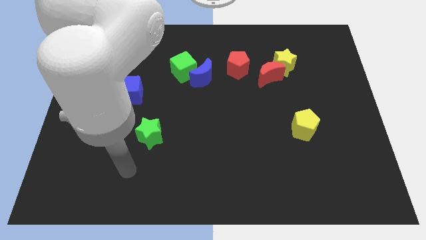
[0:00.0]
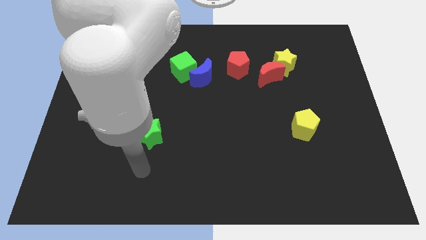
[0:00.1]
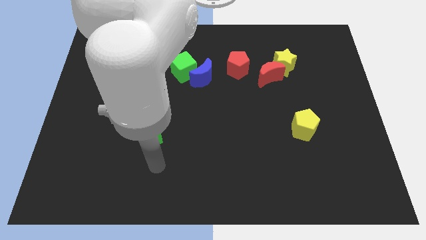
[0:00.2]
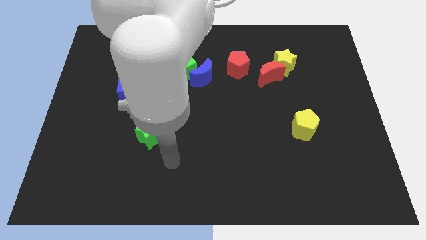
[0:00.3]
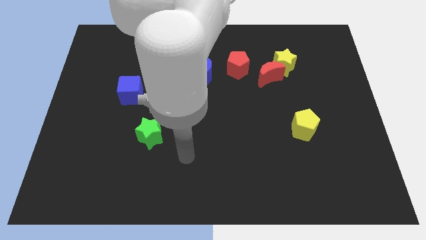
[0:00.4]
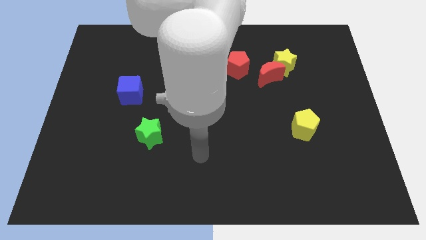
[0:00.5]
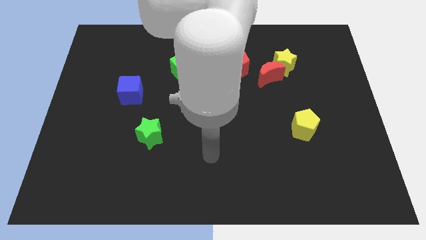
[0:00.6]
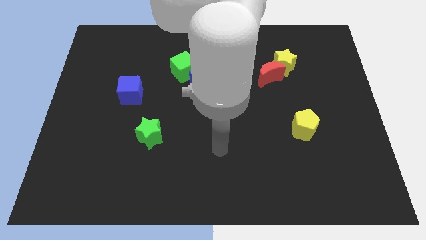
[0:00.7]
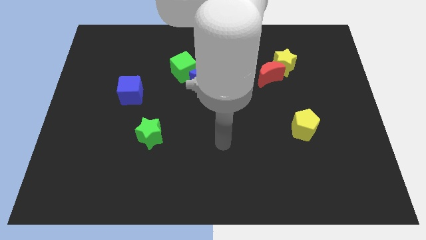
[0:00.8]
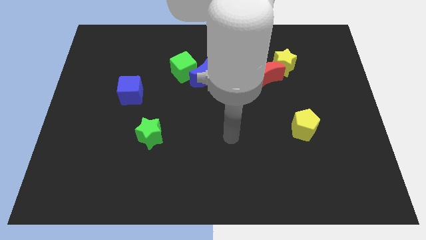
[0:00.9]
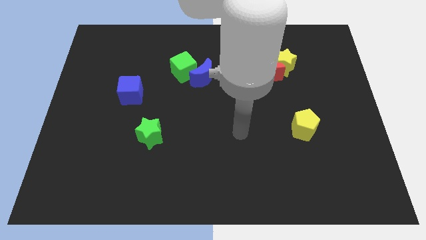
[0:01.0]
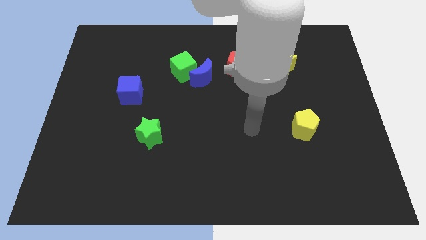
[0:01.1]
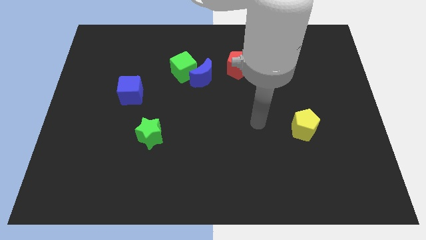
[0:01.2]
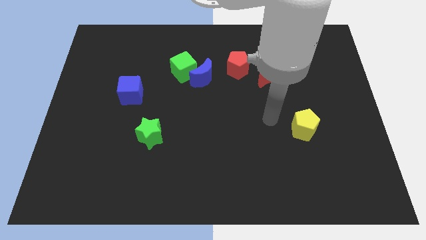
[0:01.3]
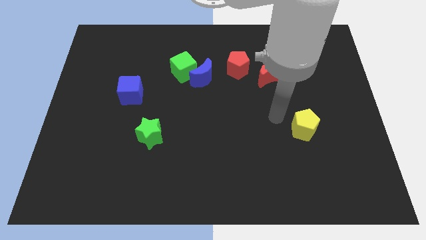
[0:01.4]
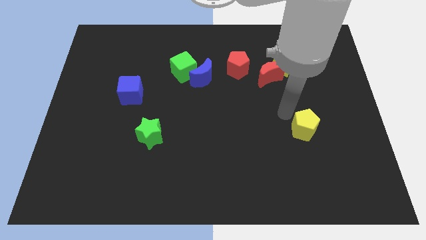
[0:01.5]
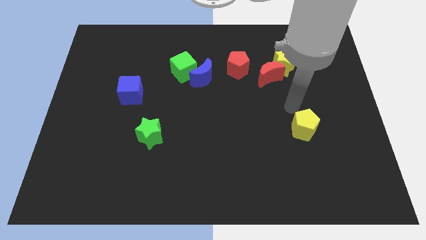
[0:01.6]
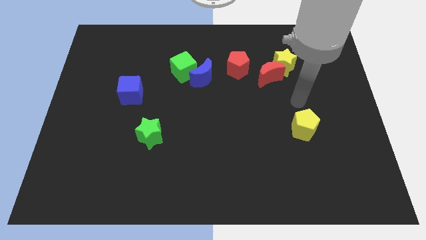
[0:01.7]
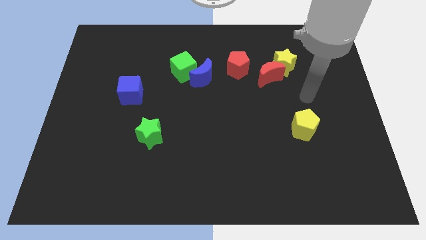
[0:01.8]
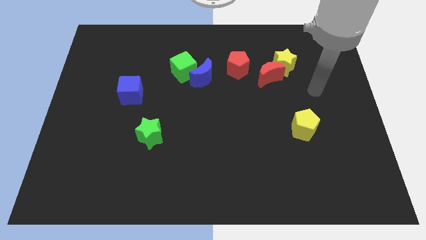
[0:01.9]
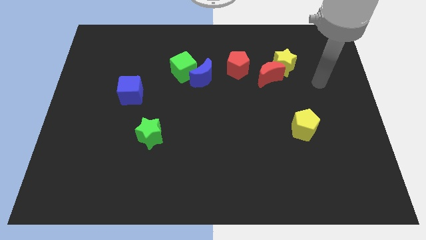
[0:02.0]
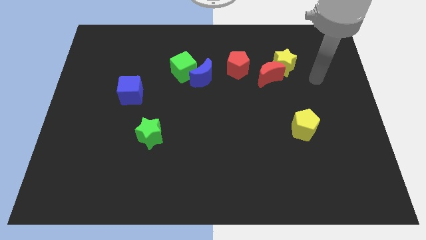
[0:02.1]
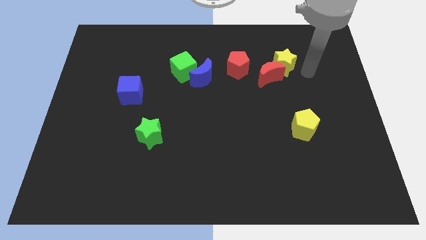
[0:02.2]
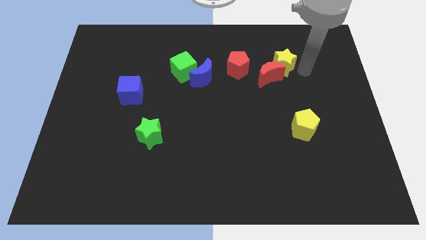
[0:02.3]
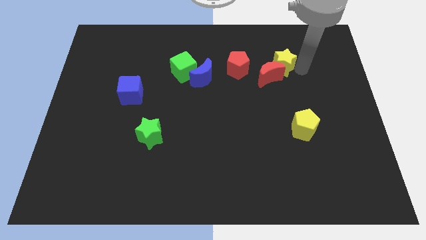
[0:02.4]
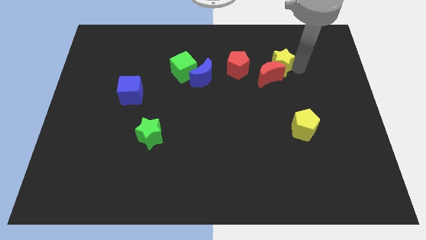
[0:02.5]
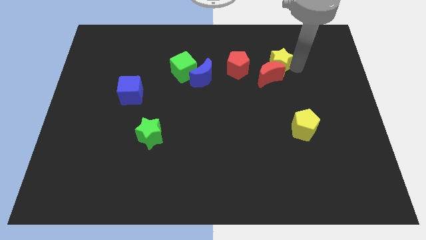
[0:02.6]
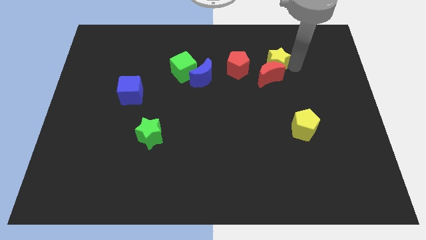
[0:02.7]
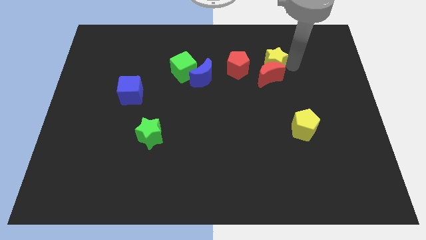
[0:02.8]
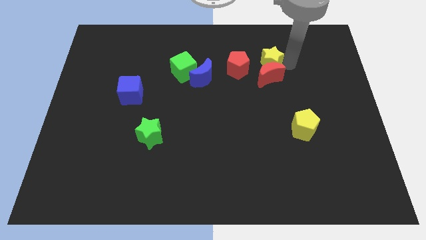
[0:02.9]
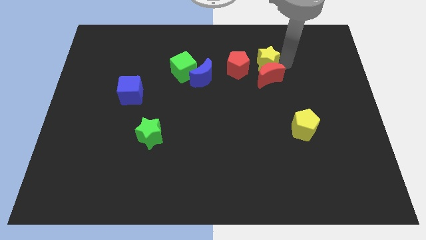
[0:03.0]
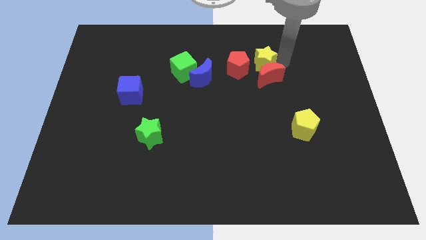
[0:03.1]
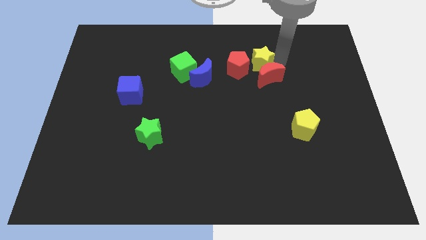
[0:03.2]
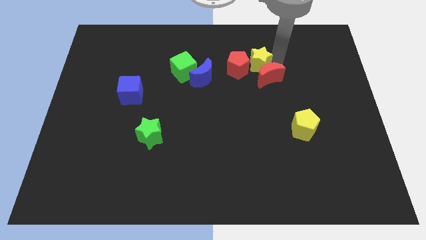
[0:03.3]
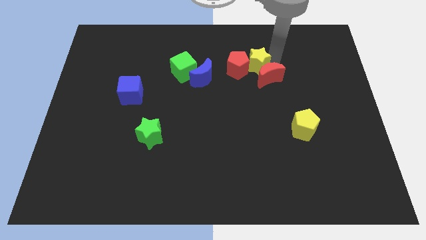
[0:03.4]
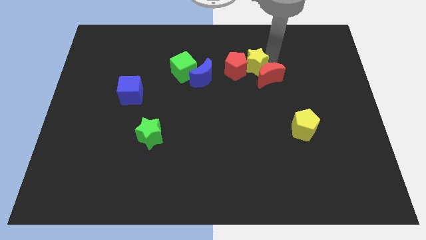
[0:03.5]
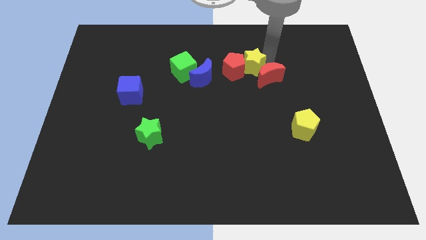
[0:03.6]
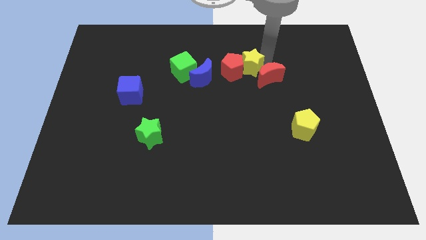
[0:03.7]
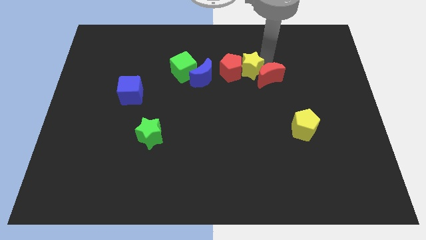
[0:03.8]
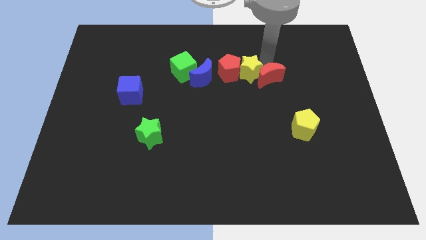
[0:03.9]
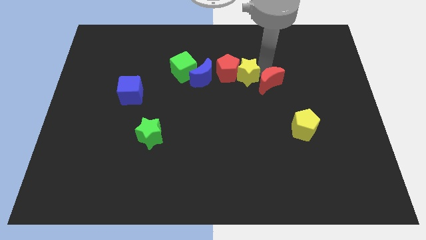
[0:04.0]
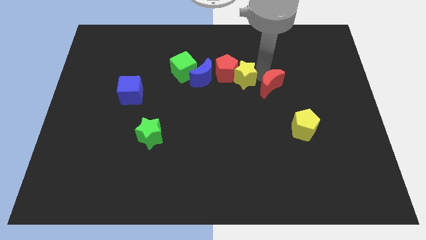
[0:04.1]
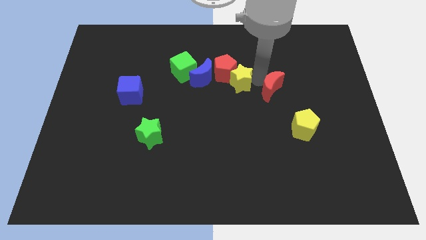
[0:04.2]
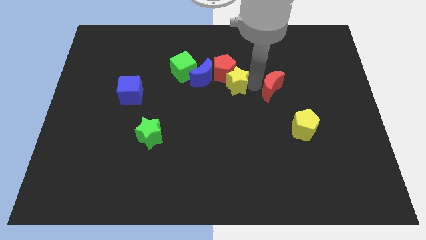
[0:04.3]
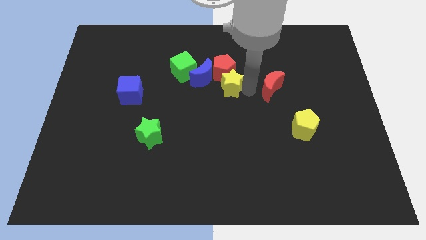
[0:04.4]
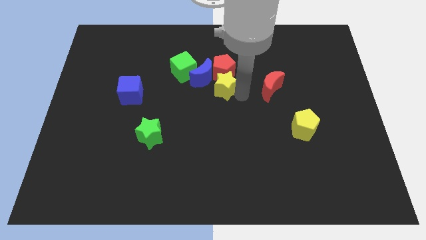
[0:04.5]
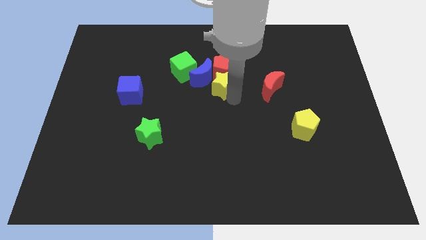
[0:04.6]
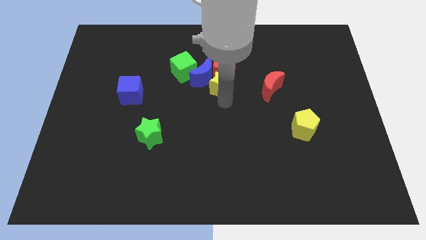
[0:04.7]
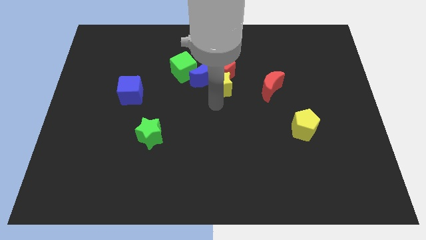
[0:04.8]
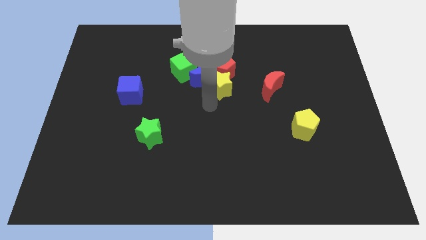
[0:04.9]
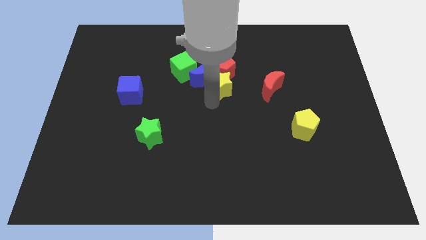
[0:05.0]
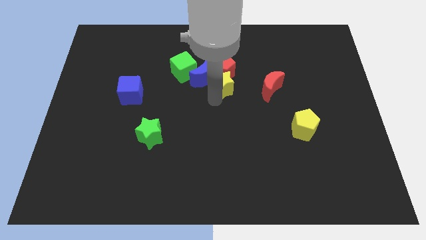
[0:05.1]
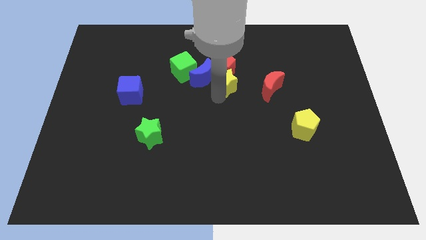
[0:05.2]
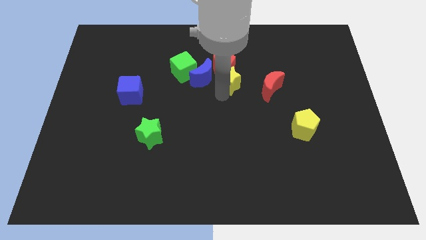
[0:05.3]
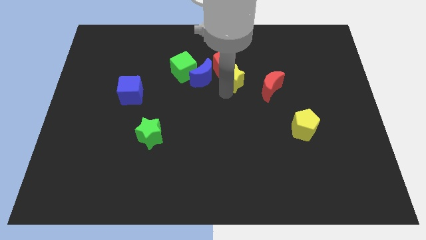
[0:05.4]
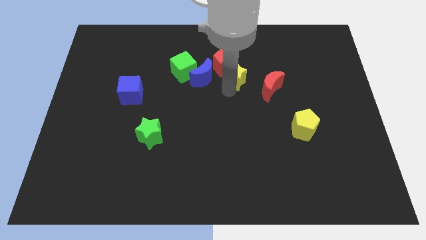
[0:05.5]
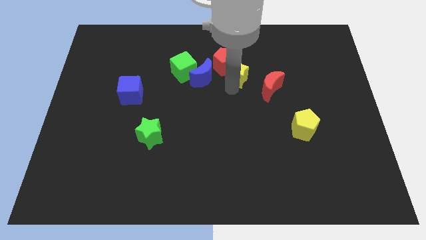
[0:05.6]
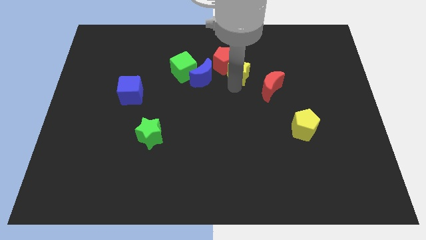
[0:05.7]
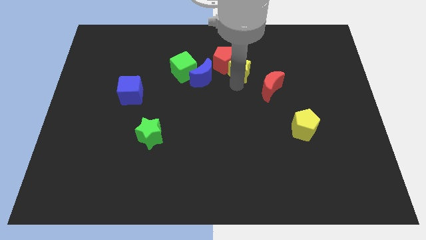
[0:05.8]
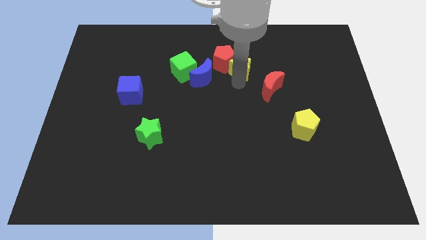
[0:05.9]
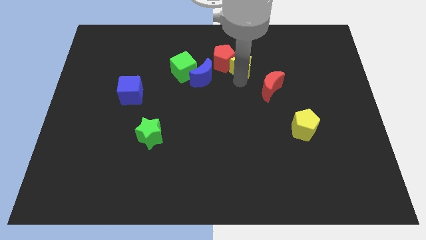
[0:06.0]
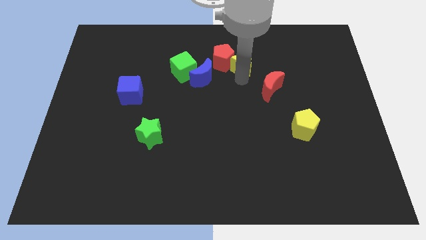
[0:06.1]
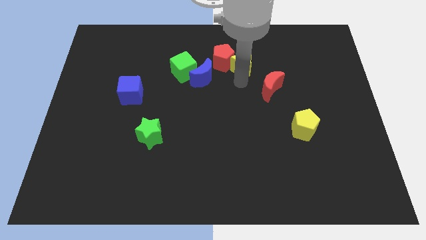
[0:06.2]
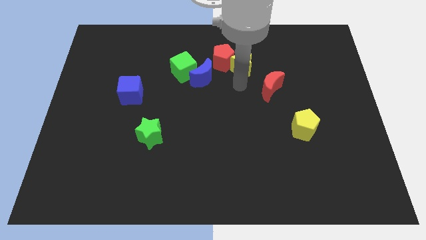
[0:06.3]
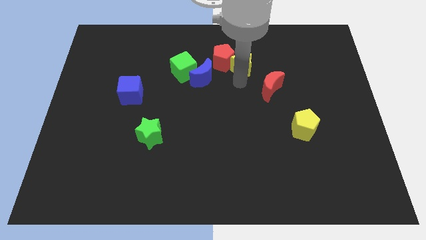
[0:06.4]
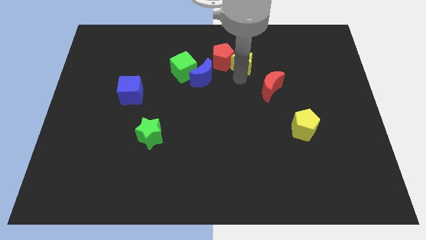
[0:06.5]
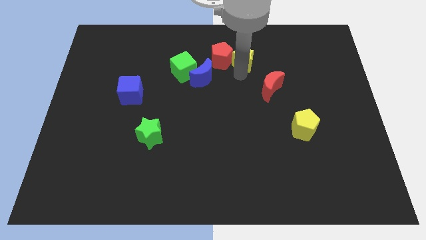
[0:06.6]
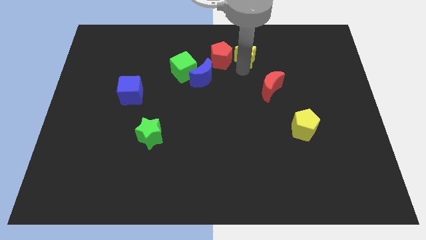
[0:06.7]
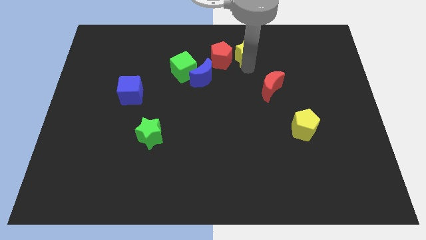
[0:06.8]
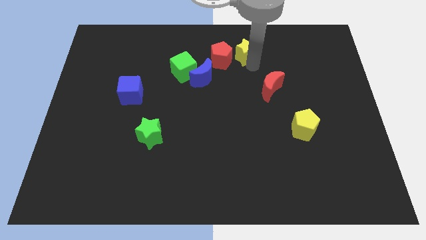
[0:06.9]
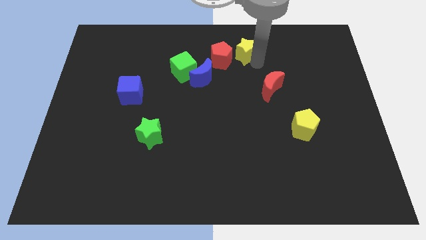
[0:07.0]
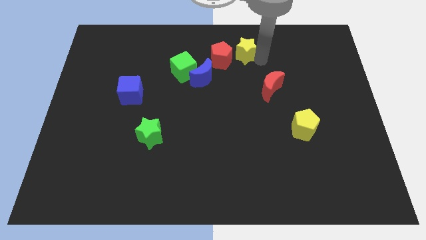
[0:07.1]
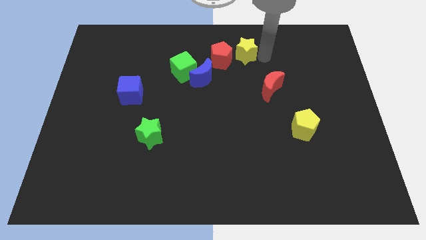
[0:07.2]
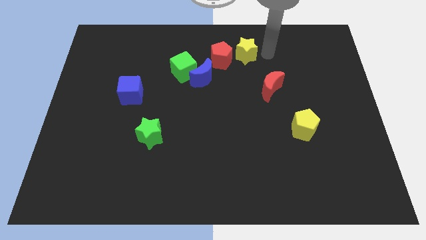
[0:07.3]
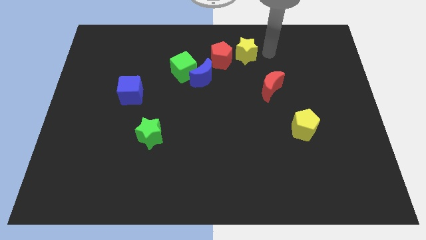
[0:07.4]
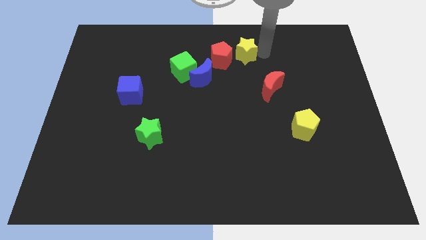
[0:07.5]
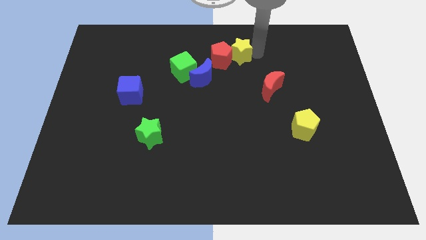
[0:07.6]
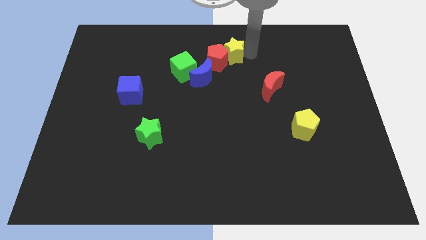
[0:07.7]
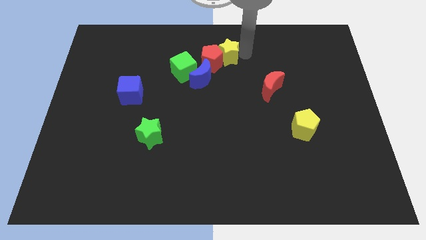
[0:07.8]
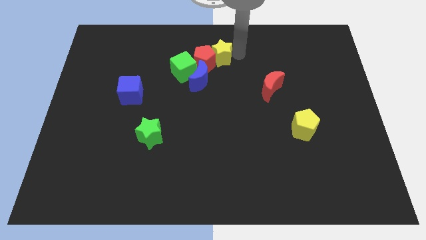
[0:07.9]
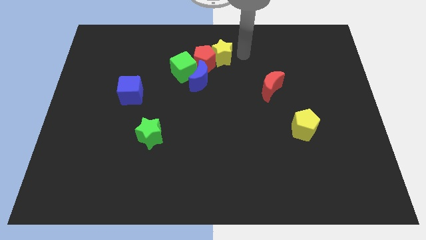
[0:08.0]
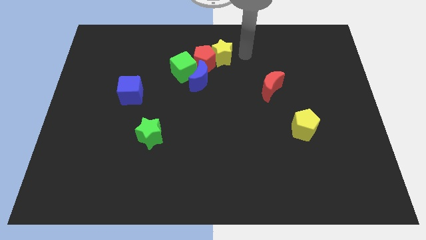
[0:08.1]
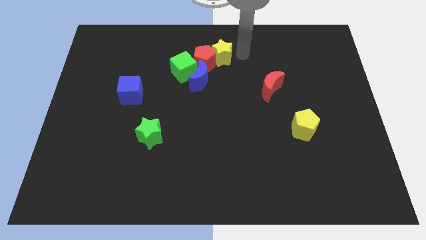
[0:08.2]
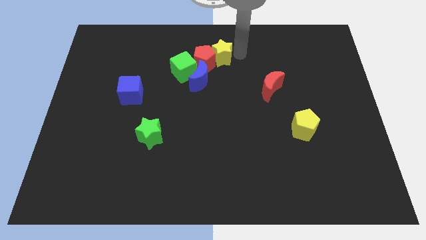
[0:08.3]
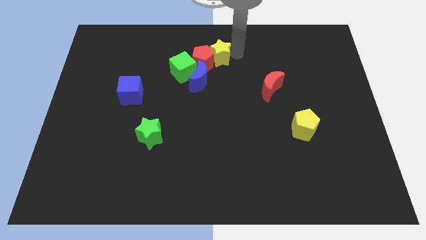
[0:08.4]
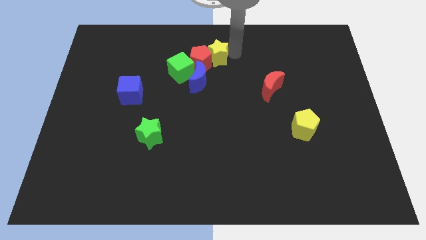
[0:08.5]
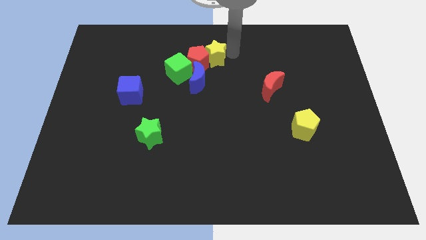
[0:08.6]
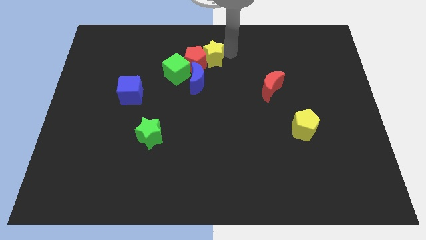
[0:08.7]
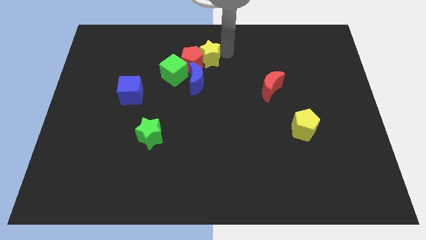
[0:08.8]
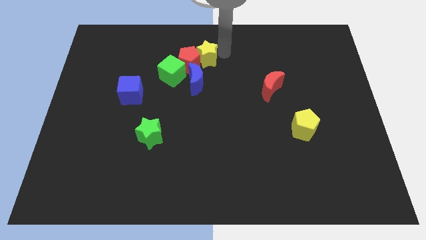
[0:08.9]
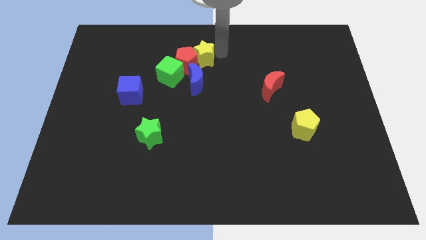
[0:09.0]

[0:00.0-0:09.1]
slide the yellow star to the left
